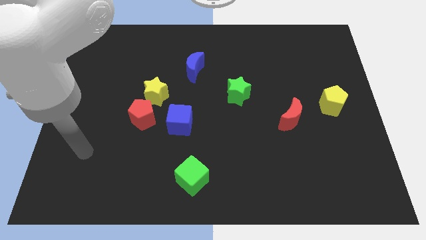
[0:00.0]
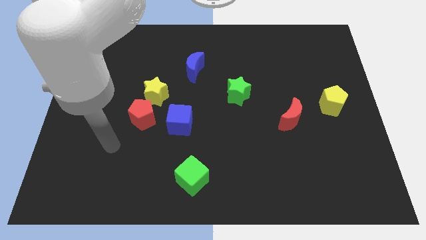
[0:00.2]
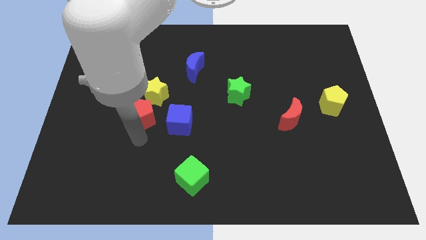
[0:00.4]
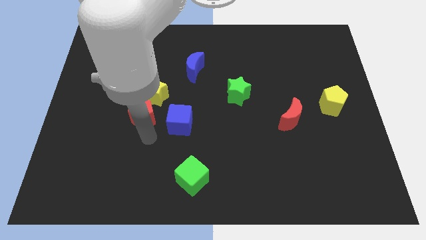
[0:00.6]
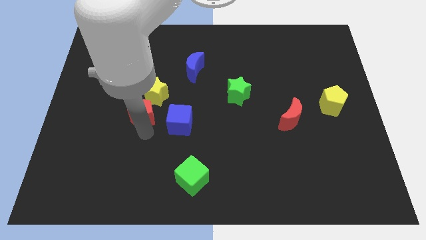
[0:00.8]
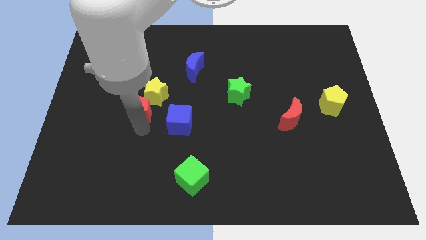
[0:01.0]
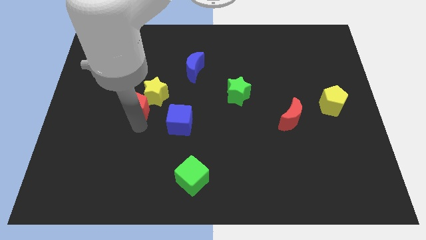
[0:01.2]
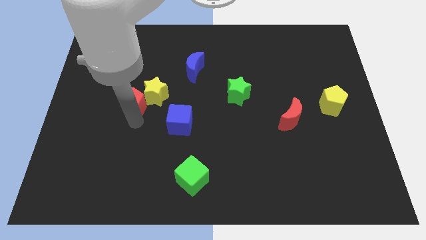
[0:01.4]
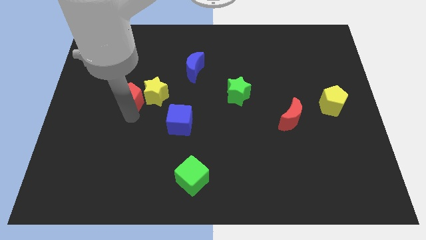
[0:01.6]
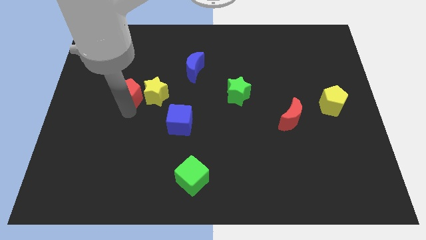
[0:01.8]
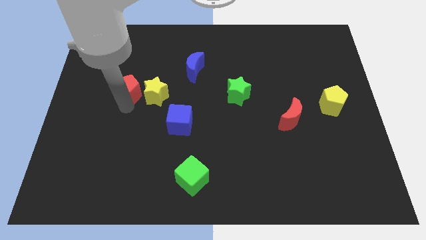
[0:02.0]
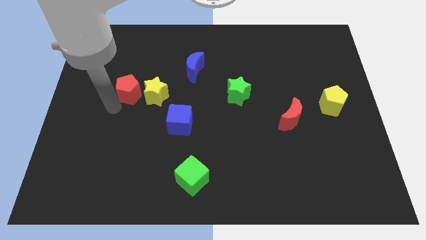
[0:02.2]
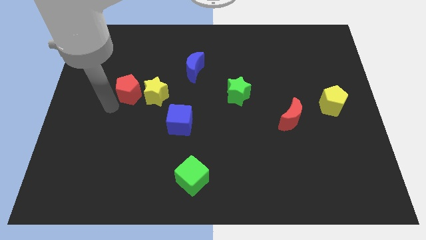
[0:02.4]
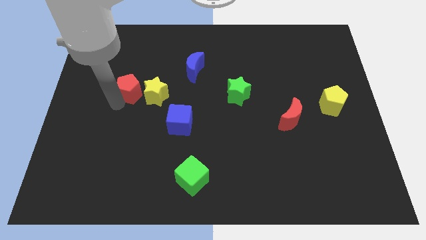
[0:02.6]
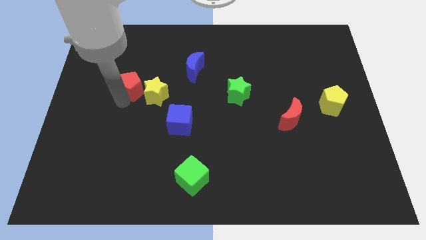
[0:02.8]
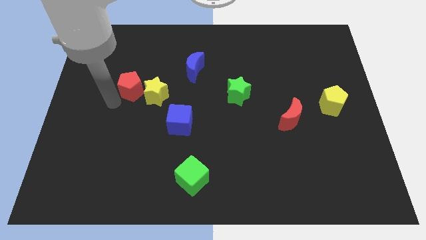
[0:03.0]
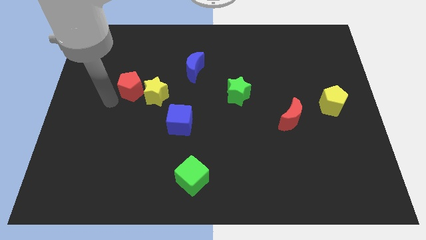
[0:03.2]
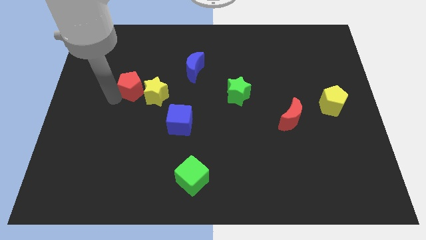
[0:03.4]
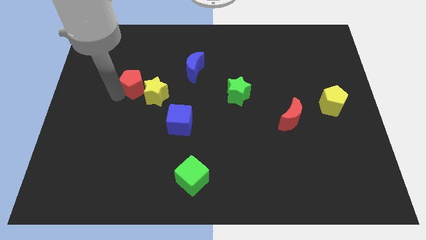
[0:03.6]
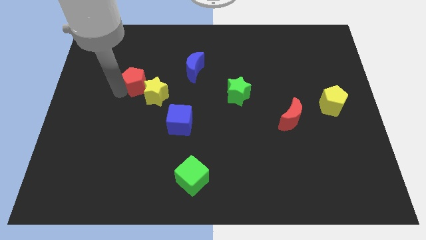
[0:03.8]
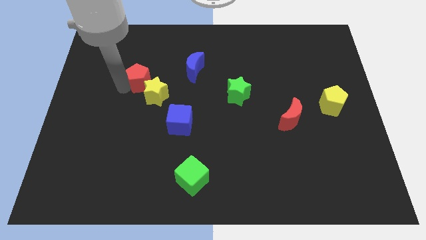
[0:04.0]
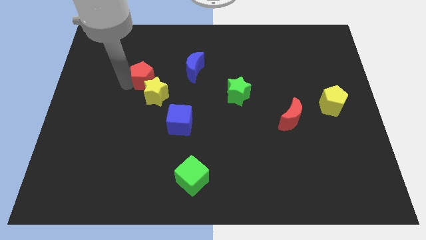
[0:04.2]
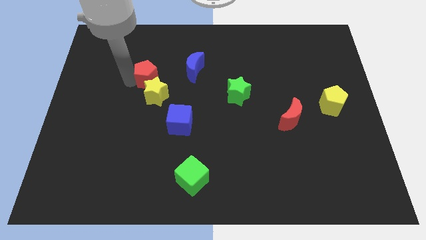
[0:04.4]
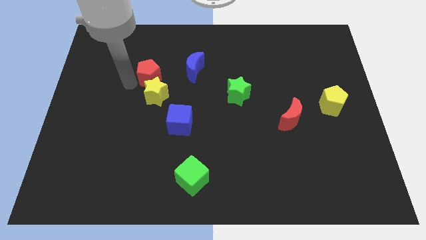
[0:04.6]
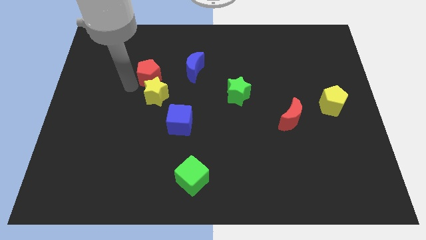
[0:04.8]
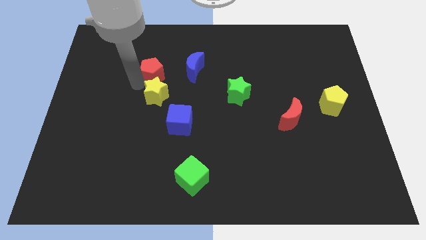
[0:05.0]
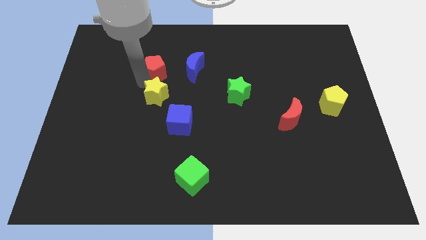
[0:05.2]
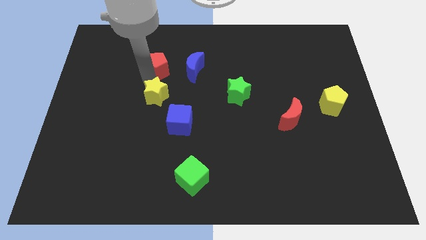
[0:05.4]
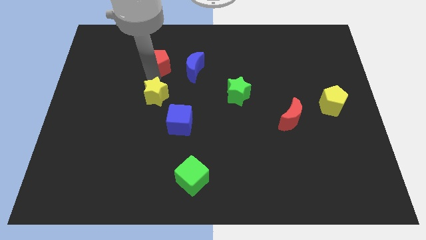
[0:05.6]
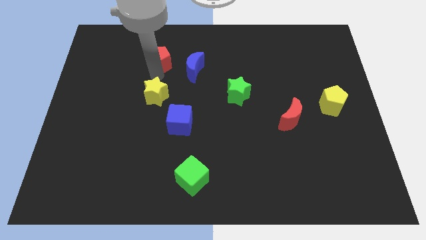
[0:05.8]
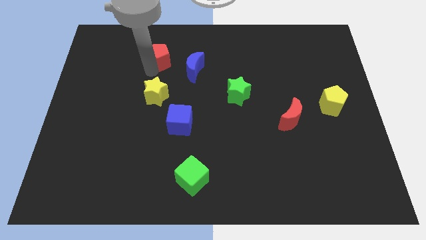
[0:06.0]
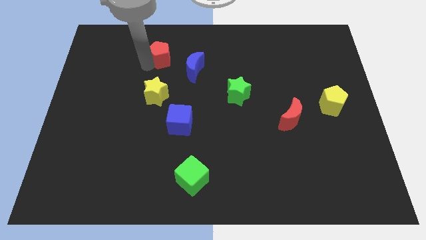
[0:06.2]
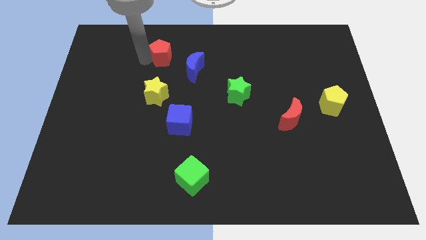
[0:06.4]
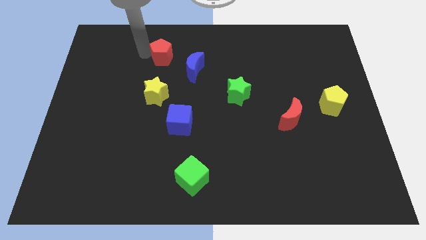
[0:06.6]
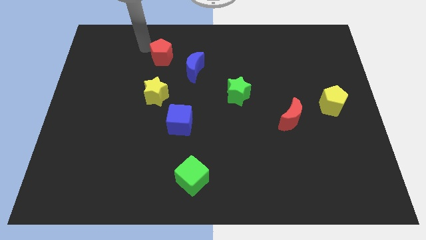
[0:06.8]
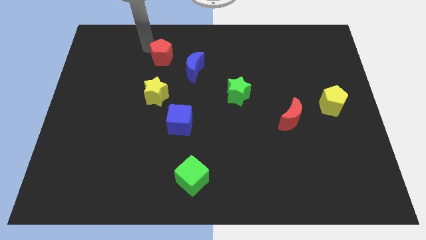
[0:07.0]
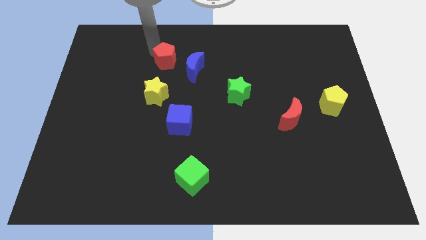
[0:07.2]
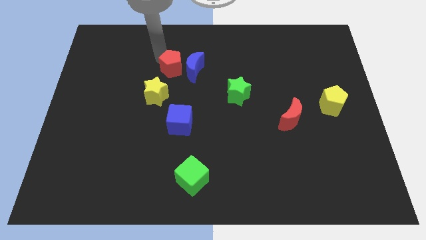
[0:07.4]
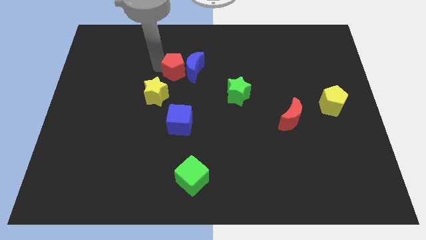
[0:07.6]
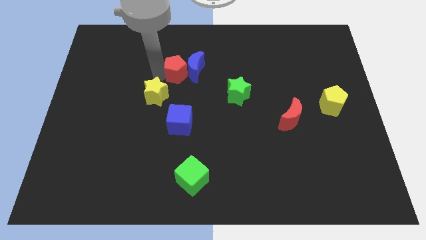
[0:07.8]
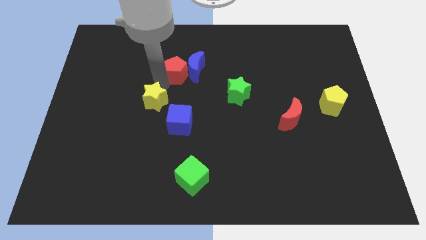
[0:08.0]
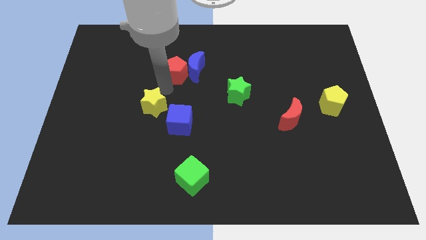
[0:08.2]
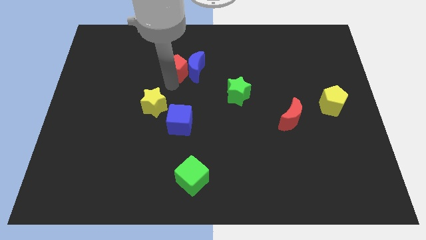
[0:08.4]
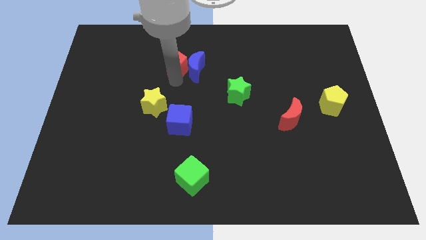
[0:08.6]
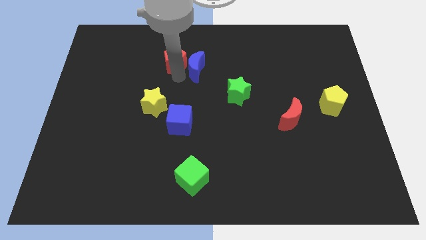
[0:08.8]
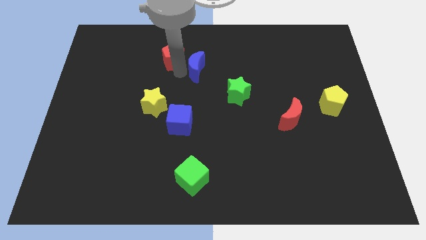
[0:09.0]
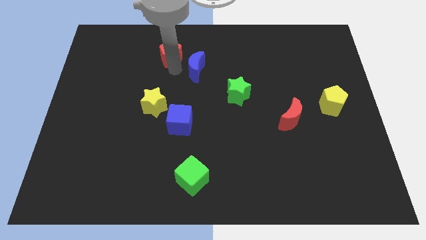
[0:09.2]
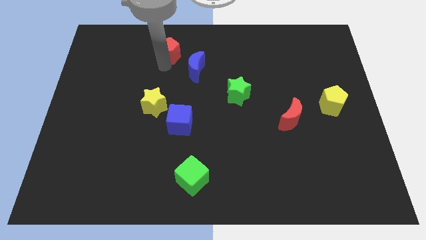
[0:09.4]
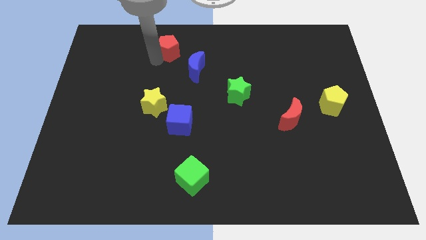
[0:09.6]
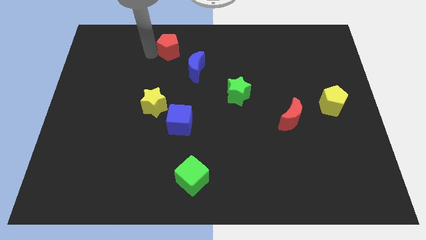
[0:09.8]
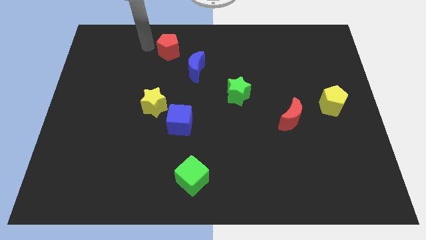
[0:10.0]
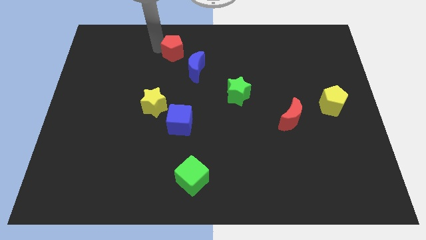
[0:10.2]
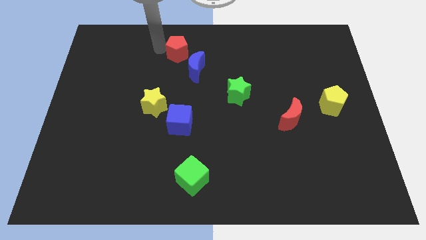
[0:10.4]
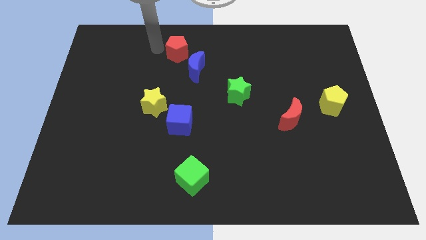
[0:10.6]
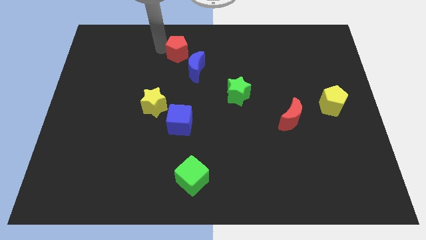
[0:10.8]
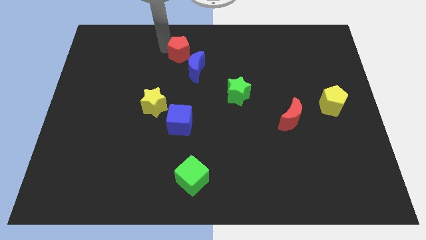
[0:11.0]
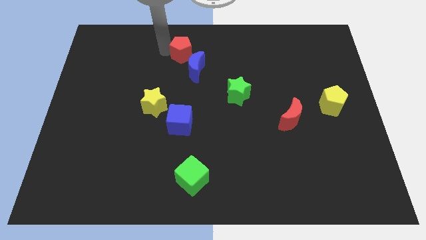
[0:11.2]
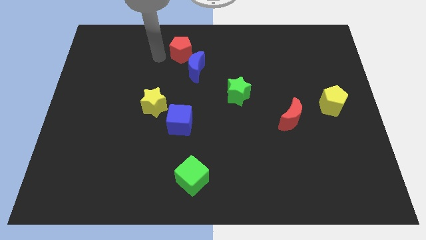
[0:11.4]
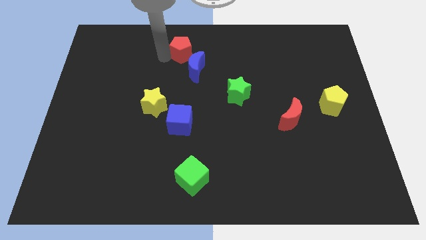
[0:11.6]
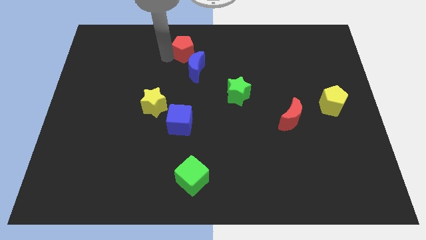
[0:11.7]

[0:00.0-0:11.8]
push the red pentagon to the top

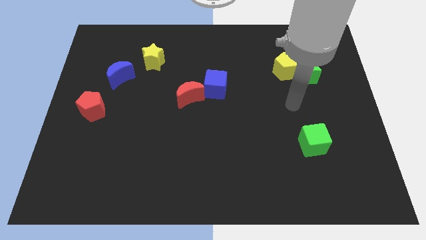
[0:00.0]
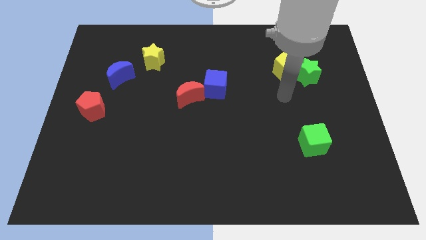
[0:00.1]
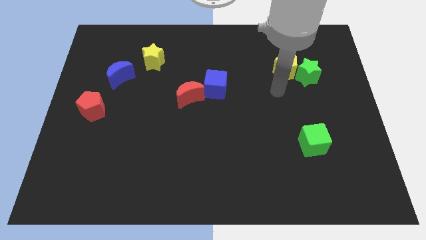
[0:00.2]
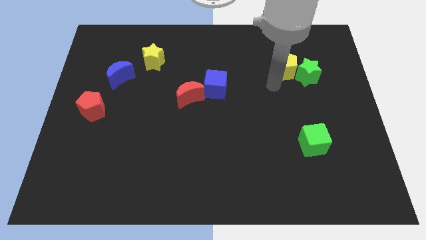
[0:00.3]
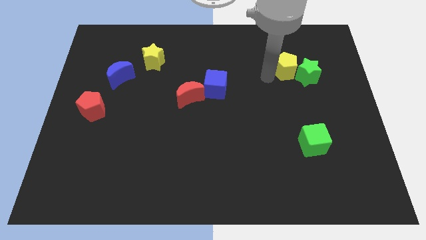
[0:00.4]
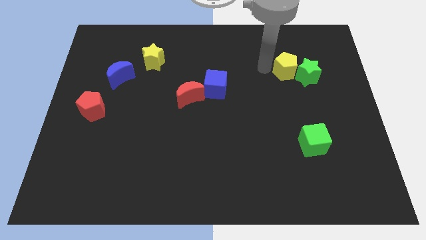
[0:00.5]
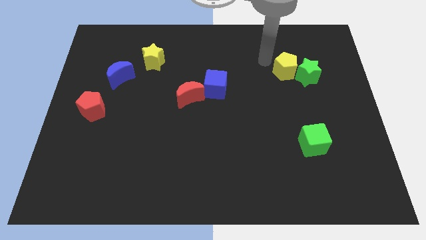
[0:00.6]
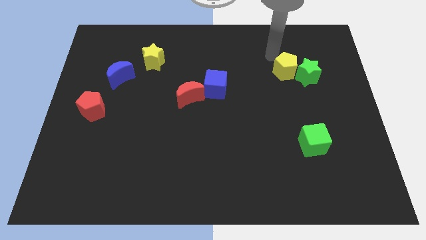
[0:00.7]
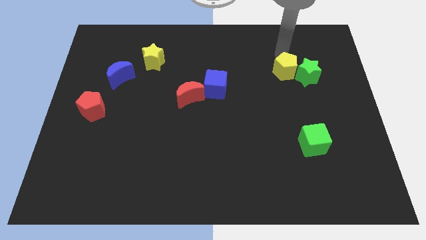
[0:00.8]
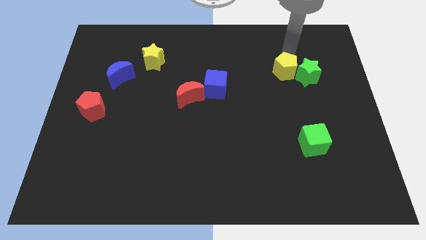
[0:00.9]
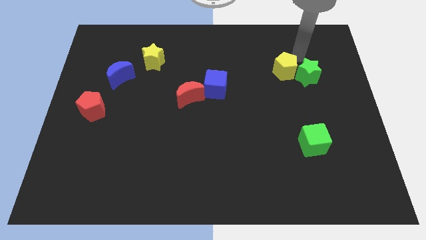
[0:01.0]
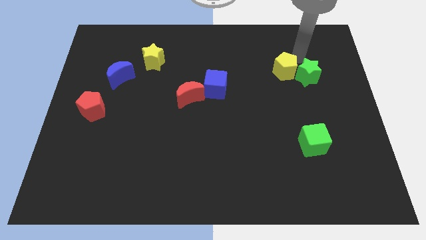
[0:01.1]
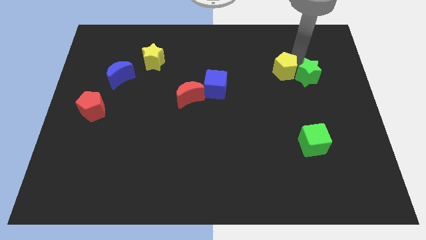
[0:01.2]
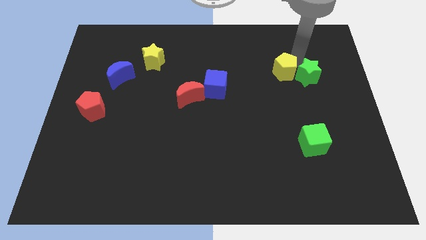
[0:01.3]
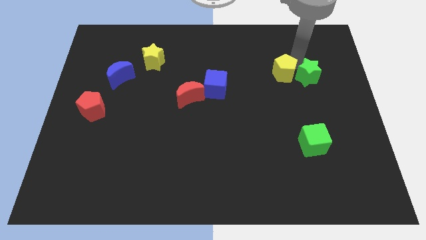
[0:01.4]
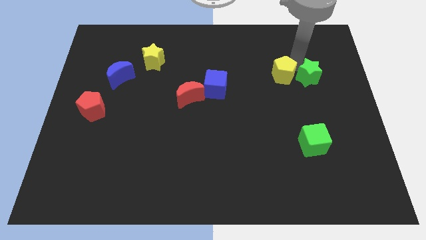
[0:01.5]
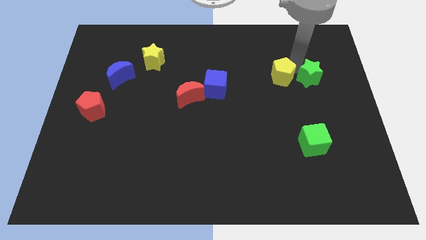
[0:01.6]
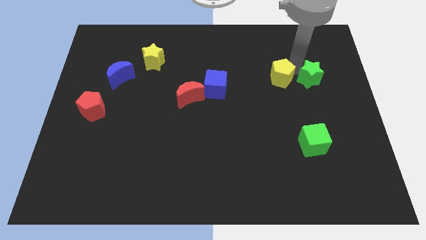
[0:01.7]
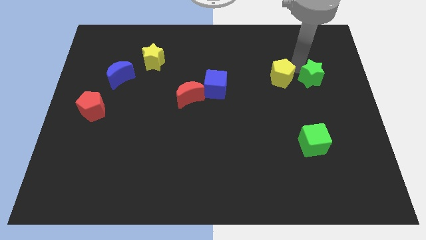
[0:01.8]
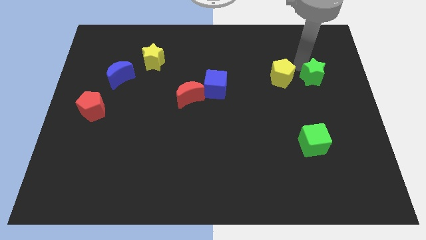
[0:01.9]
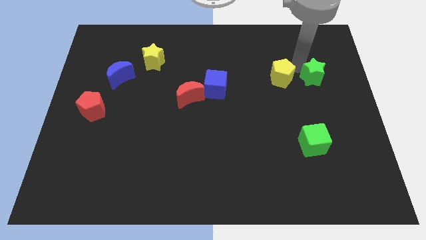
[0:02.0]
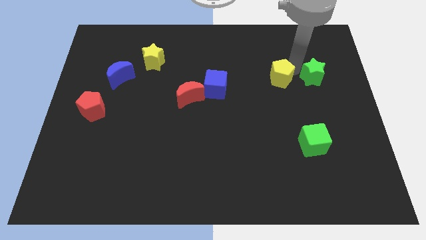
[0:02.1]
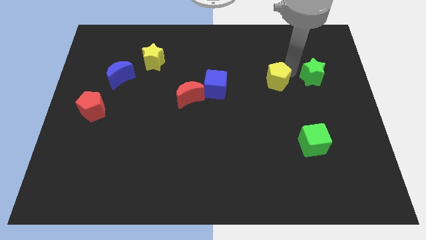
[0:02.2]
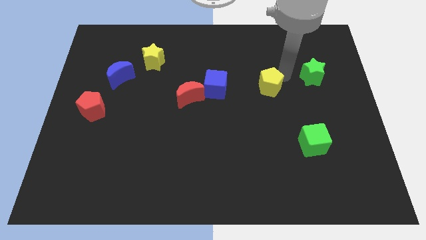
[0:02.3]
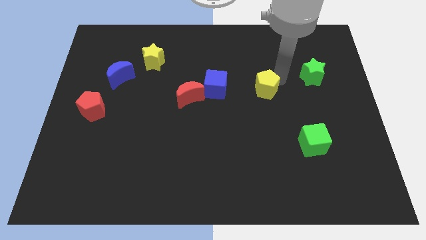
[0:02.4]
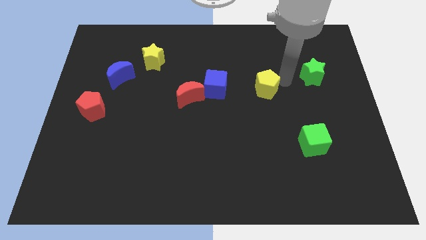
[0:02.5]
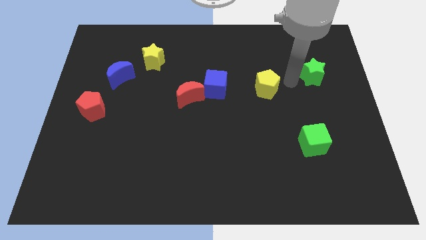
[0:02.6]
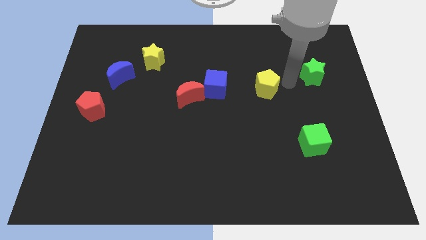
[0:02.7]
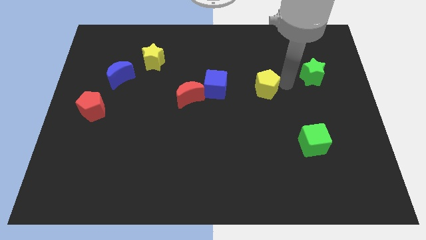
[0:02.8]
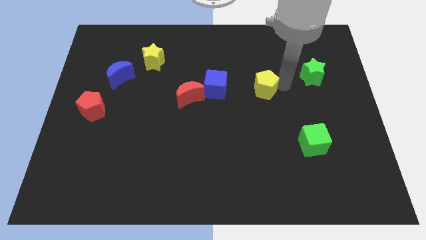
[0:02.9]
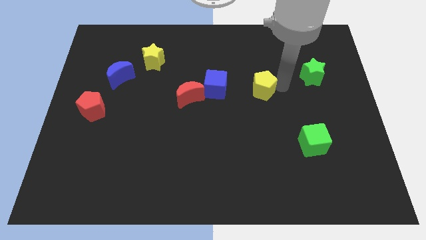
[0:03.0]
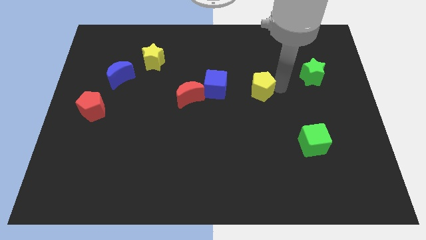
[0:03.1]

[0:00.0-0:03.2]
put the yellow pentagon to the middle of the board
